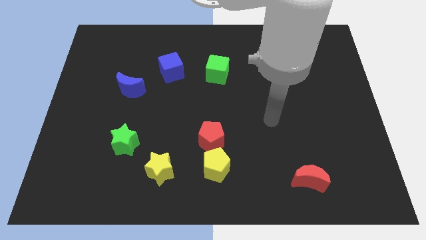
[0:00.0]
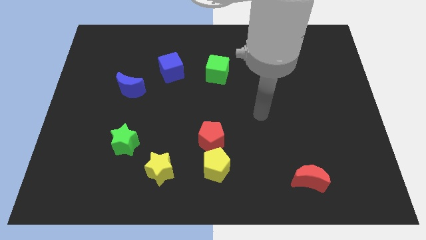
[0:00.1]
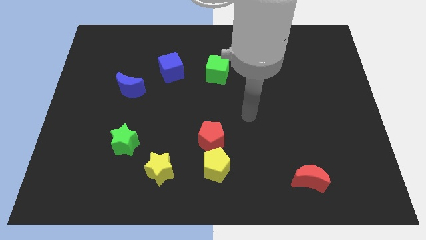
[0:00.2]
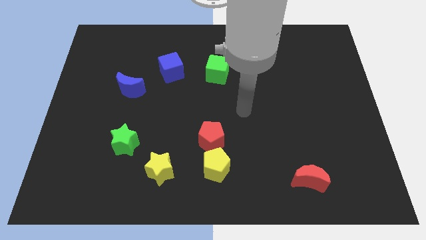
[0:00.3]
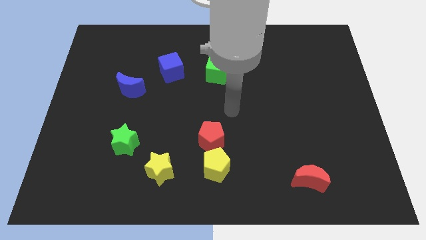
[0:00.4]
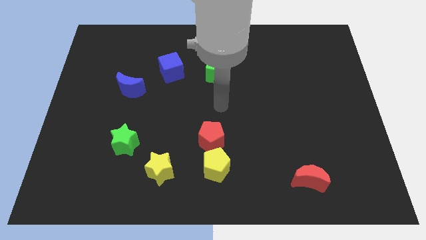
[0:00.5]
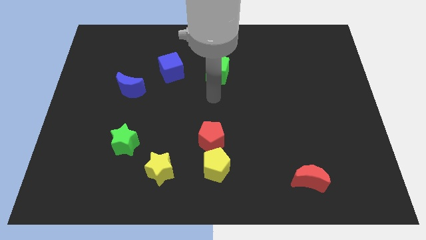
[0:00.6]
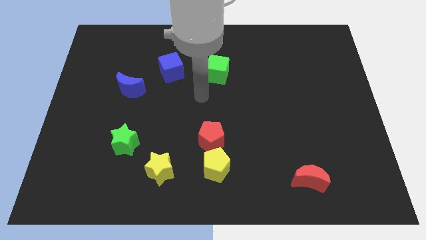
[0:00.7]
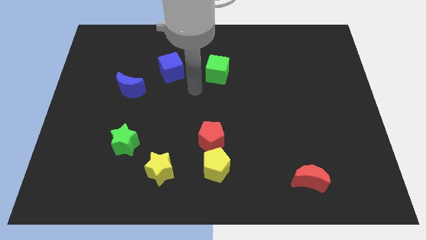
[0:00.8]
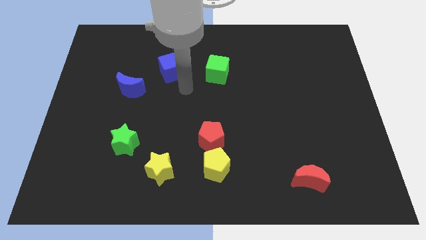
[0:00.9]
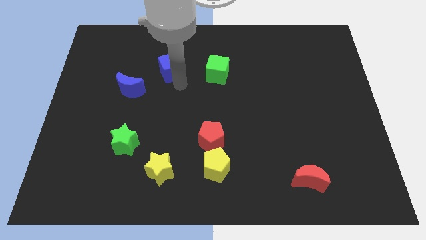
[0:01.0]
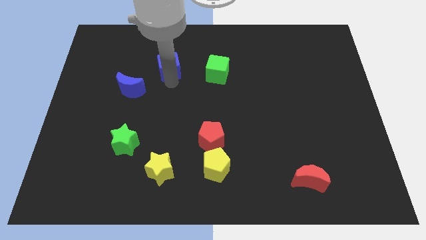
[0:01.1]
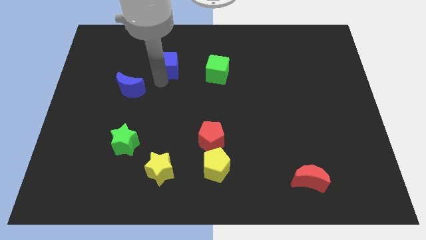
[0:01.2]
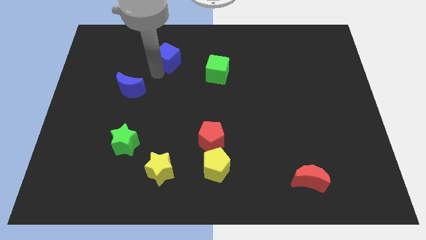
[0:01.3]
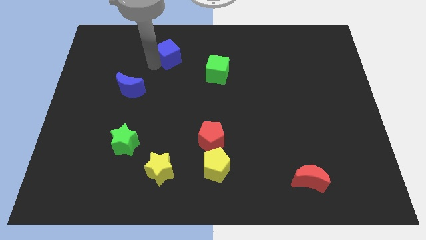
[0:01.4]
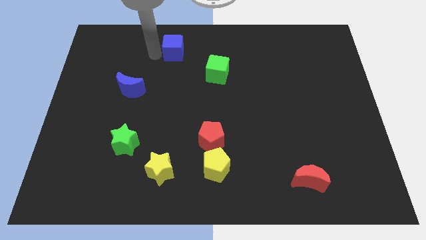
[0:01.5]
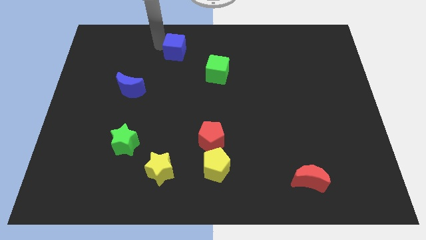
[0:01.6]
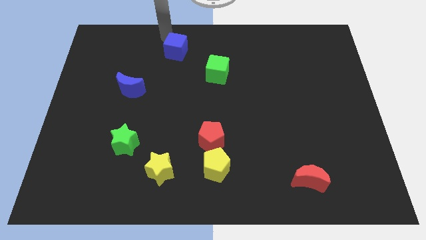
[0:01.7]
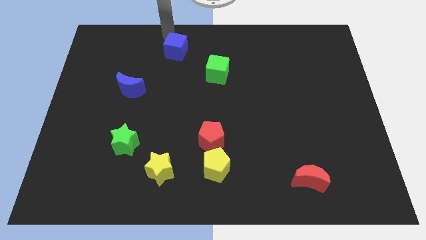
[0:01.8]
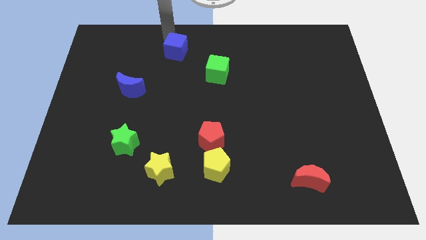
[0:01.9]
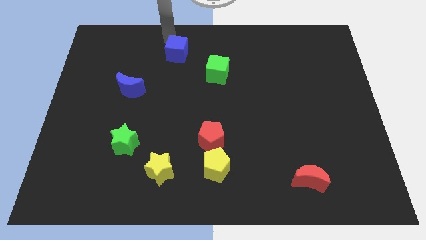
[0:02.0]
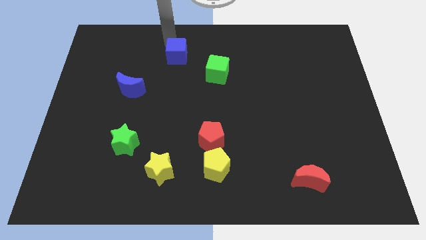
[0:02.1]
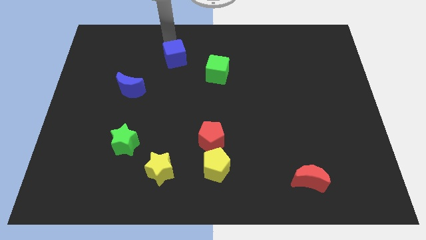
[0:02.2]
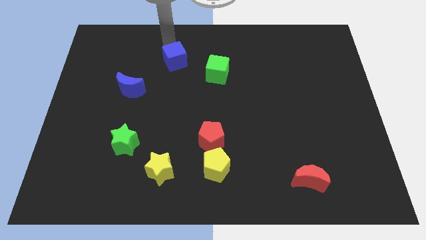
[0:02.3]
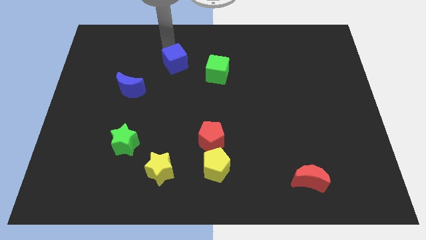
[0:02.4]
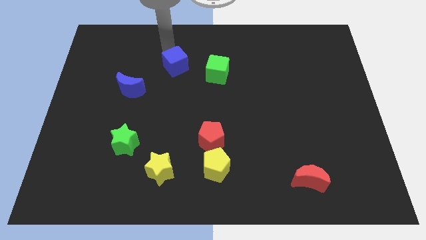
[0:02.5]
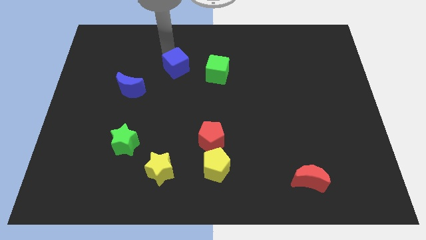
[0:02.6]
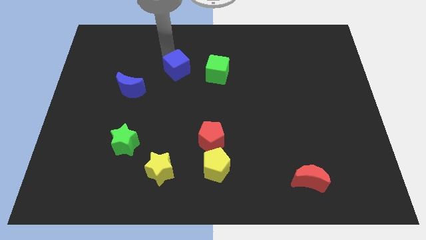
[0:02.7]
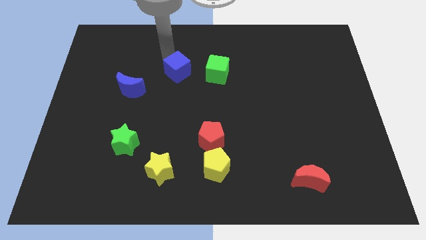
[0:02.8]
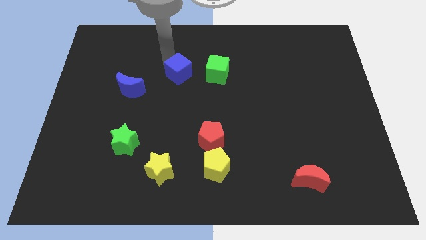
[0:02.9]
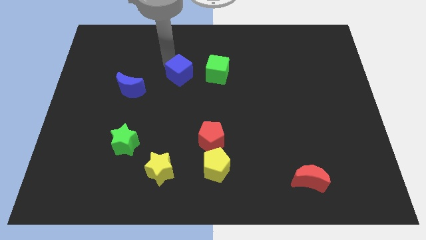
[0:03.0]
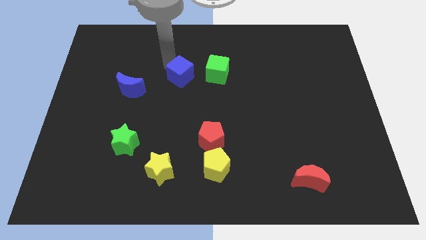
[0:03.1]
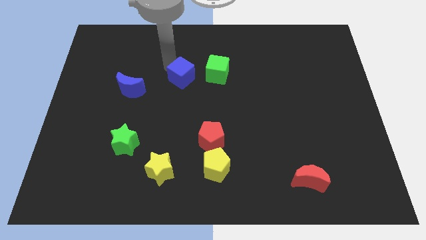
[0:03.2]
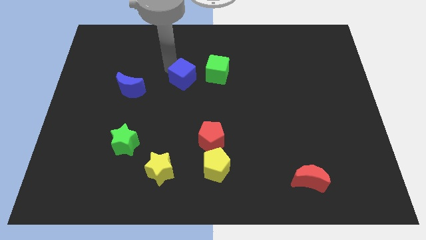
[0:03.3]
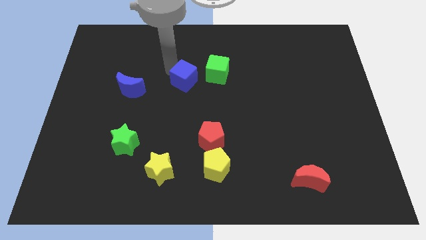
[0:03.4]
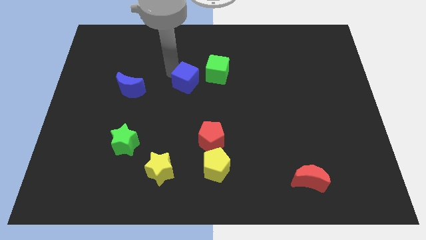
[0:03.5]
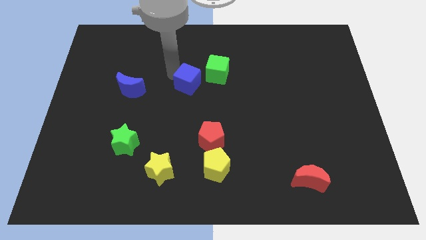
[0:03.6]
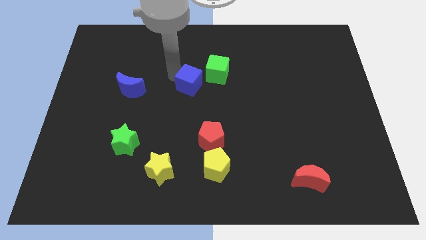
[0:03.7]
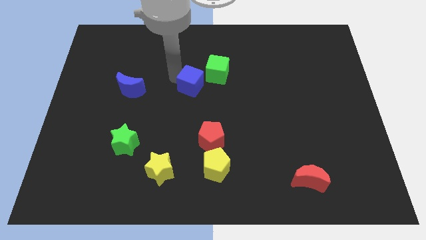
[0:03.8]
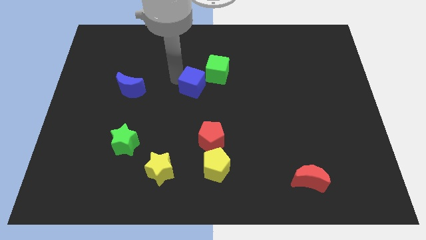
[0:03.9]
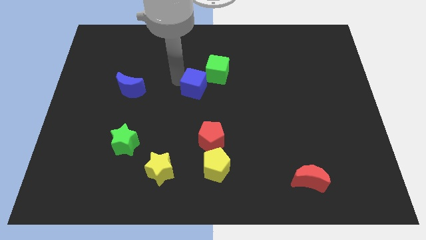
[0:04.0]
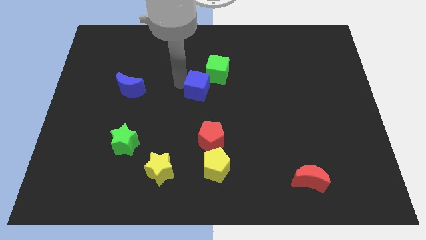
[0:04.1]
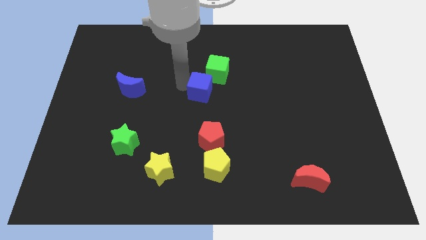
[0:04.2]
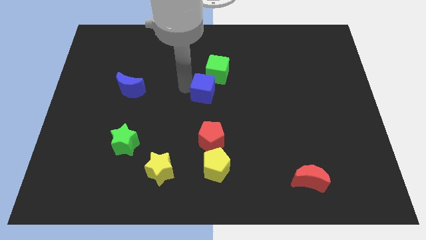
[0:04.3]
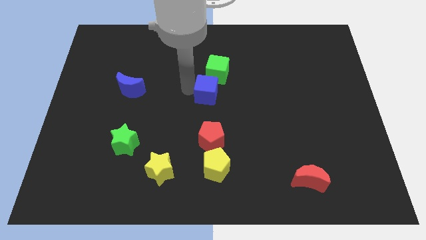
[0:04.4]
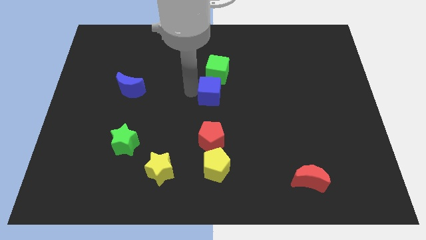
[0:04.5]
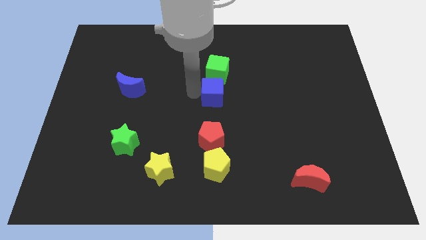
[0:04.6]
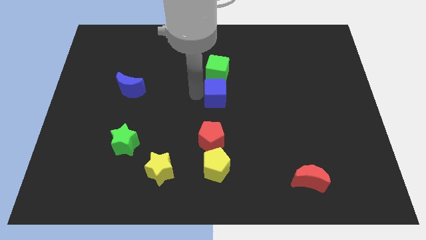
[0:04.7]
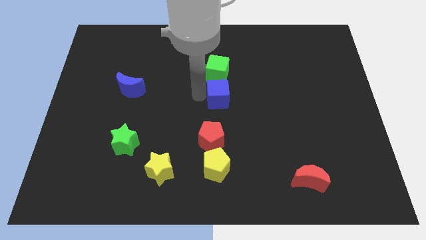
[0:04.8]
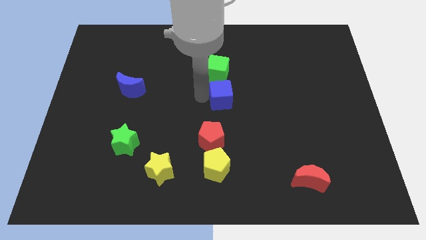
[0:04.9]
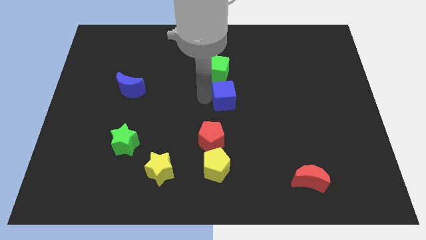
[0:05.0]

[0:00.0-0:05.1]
move the blue cube diagonally down and to the right of the green cube

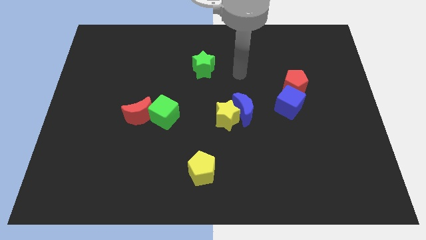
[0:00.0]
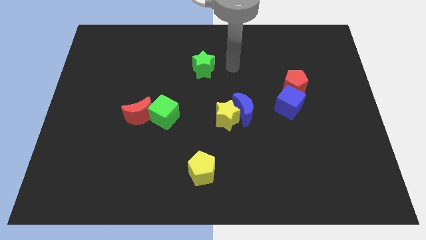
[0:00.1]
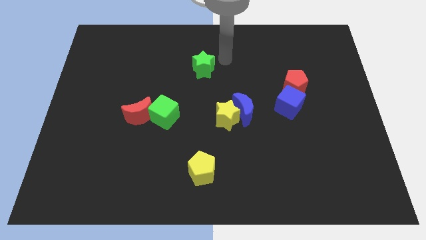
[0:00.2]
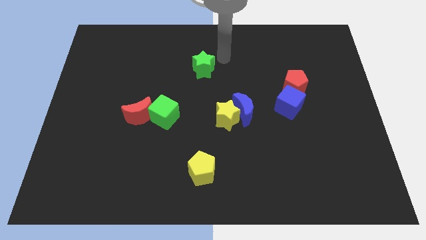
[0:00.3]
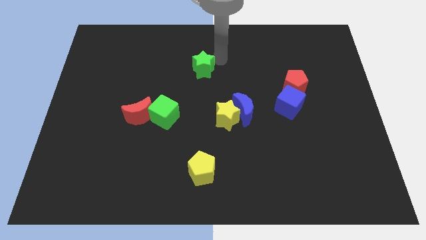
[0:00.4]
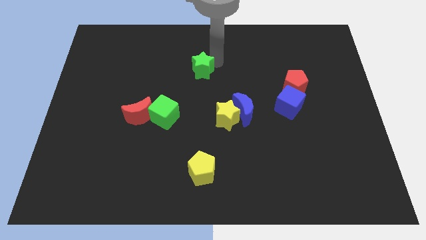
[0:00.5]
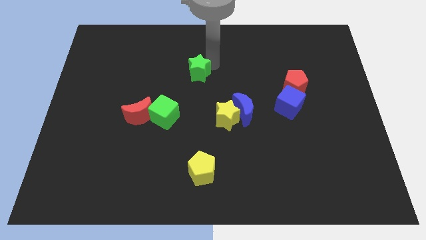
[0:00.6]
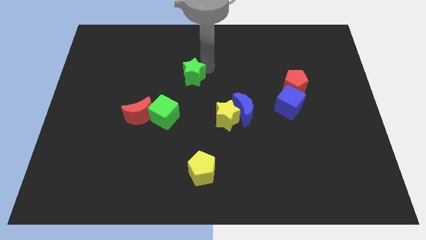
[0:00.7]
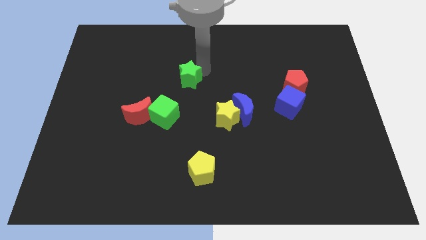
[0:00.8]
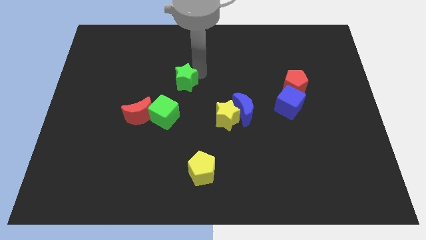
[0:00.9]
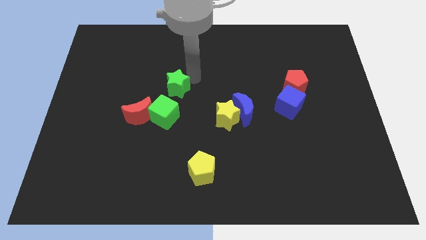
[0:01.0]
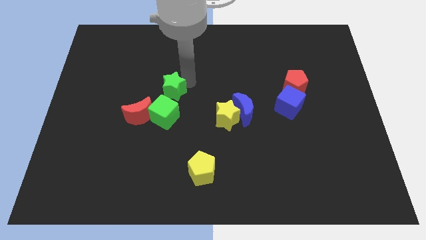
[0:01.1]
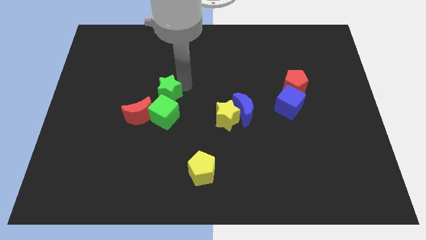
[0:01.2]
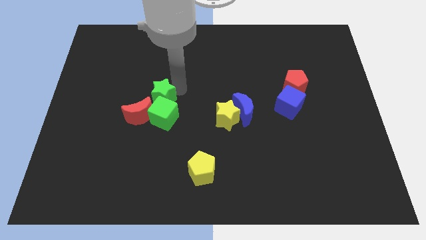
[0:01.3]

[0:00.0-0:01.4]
push the green star to the top left of the green cube

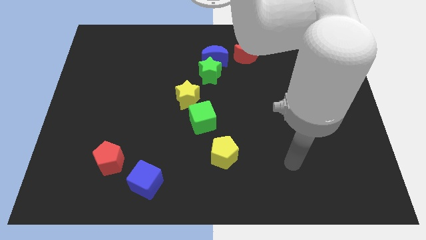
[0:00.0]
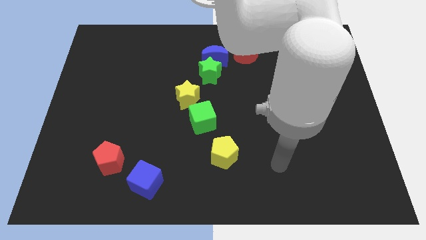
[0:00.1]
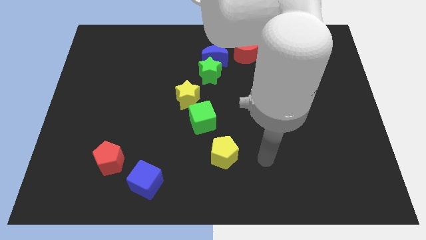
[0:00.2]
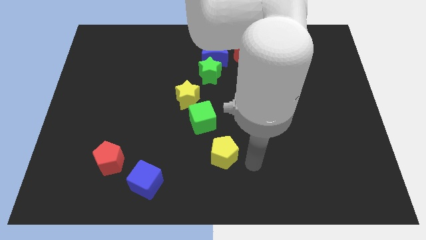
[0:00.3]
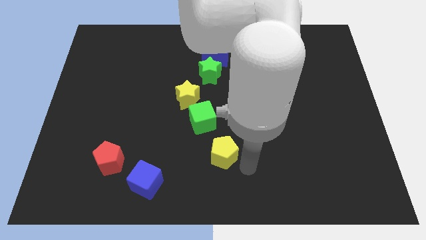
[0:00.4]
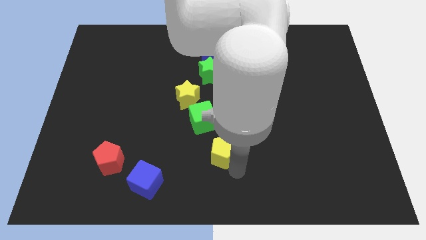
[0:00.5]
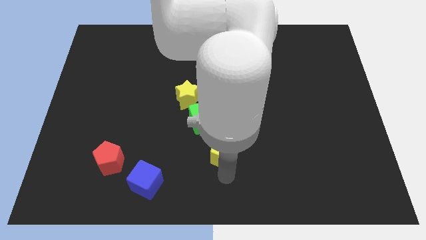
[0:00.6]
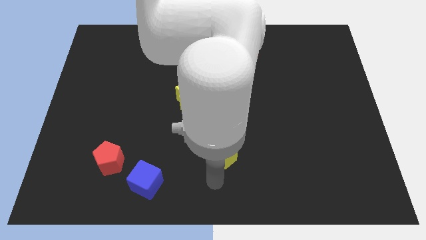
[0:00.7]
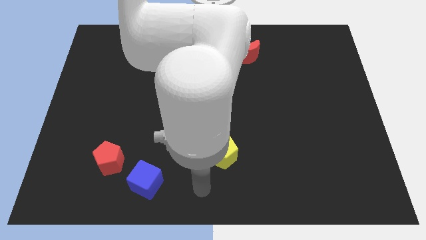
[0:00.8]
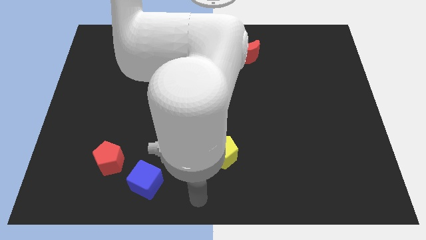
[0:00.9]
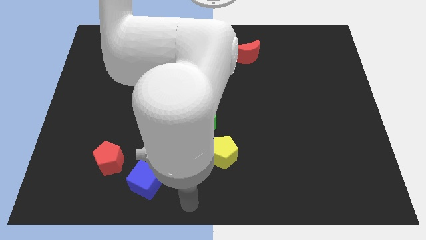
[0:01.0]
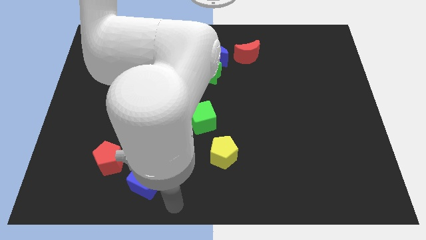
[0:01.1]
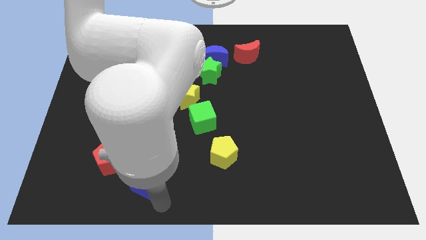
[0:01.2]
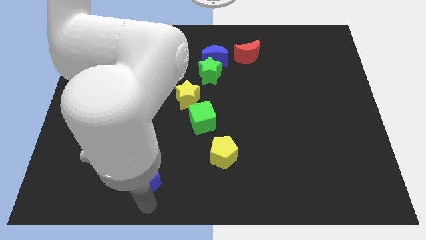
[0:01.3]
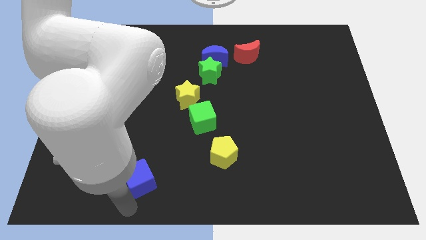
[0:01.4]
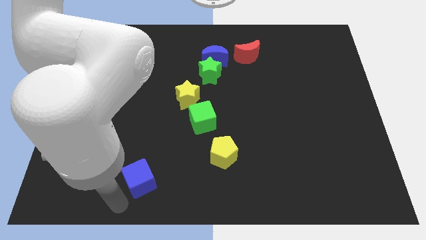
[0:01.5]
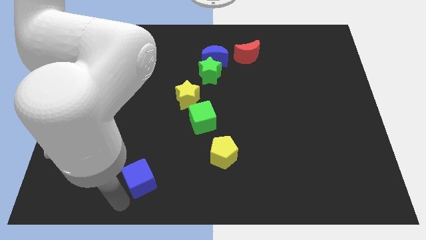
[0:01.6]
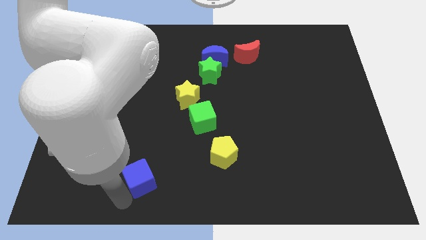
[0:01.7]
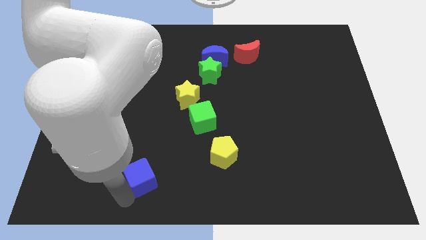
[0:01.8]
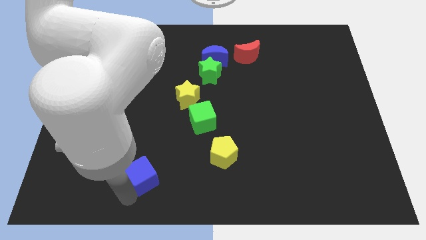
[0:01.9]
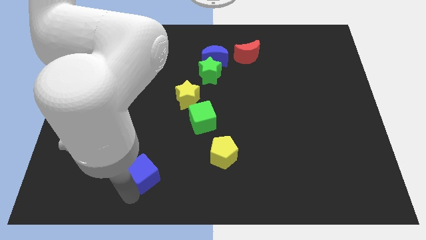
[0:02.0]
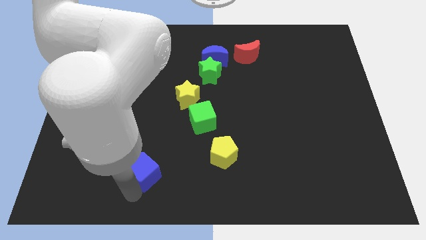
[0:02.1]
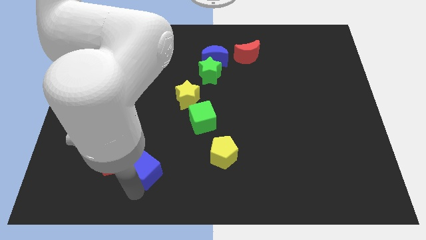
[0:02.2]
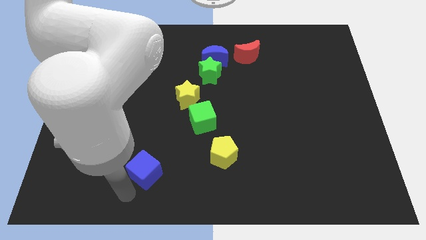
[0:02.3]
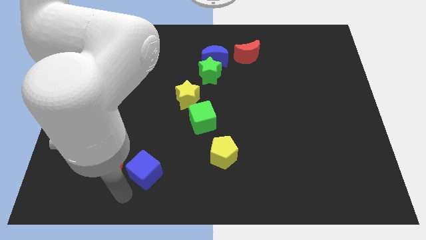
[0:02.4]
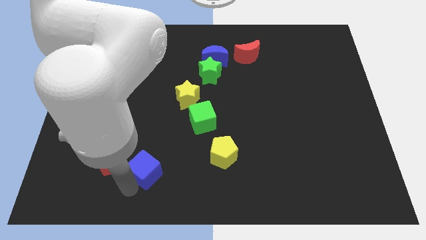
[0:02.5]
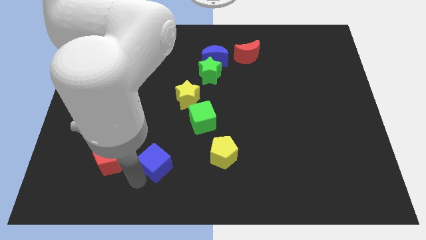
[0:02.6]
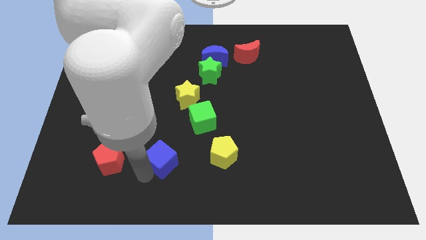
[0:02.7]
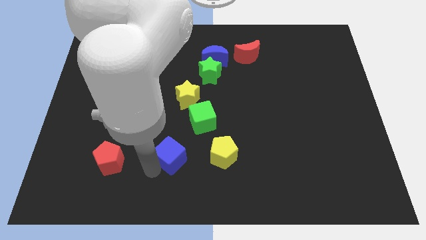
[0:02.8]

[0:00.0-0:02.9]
put the blue cube to the bottom left side of the green cube
